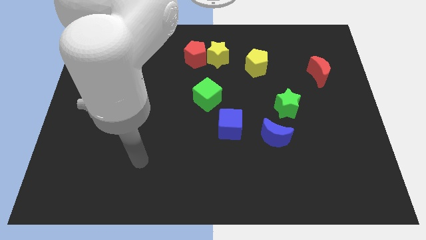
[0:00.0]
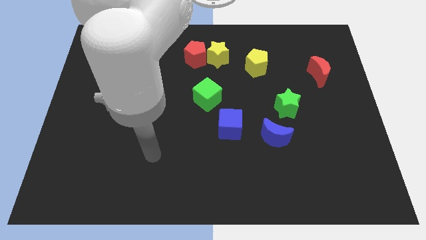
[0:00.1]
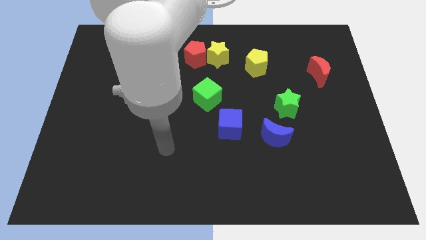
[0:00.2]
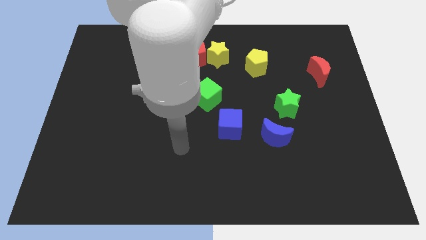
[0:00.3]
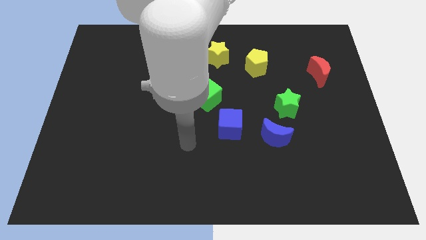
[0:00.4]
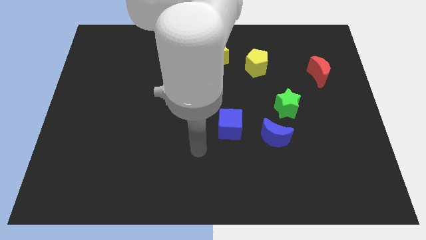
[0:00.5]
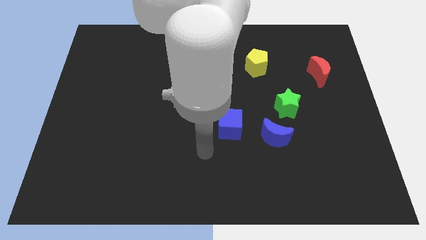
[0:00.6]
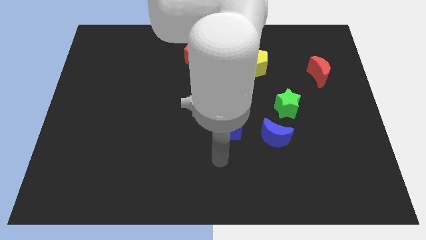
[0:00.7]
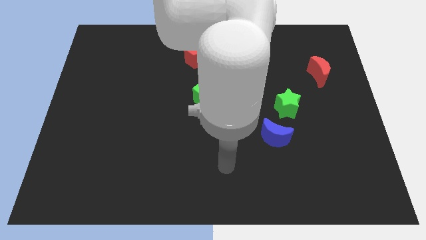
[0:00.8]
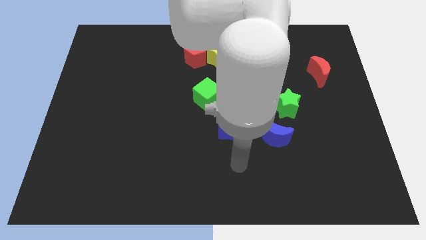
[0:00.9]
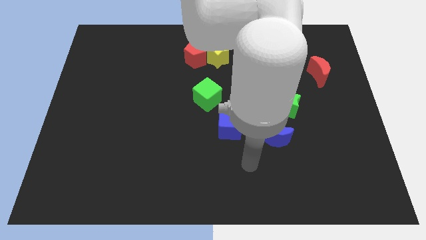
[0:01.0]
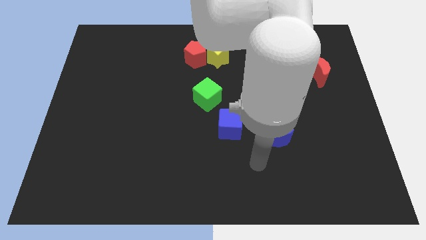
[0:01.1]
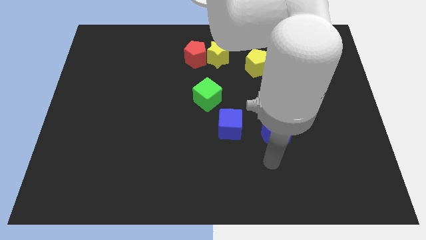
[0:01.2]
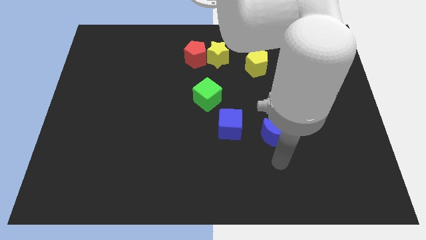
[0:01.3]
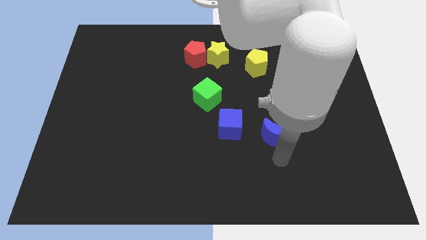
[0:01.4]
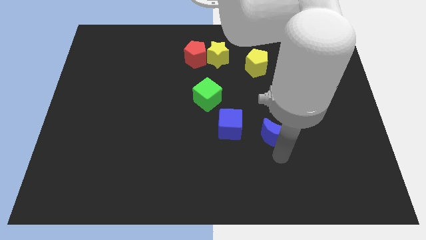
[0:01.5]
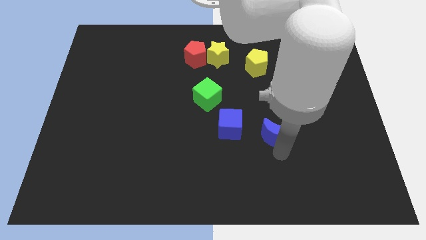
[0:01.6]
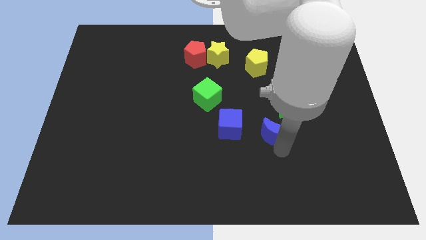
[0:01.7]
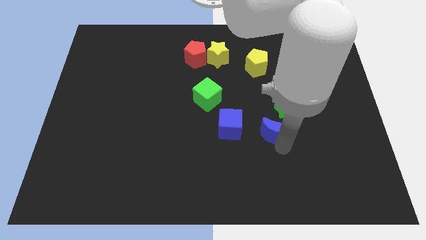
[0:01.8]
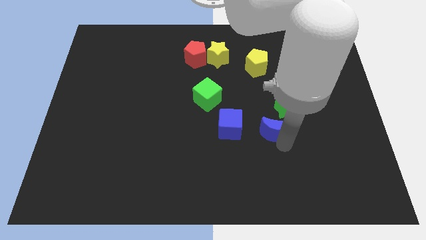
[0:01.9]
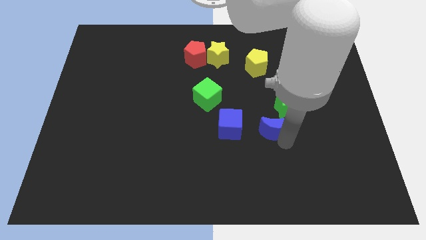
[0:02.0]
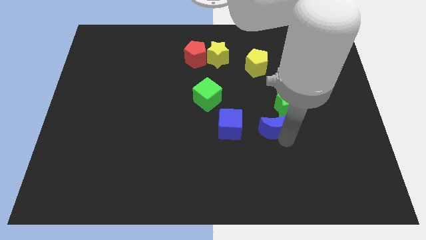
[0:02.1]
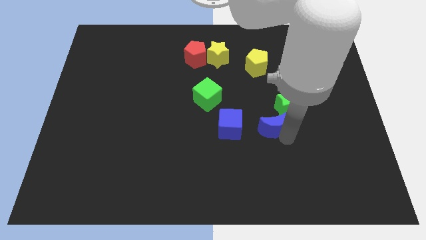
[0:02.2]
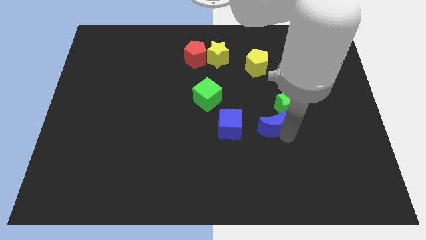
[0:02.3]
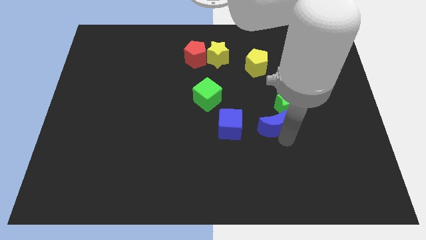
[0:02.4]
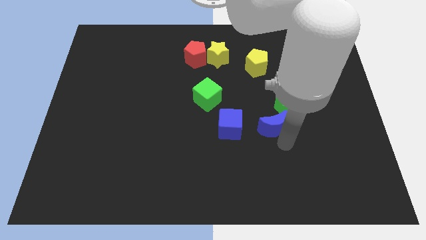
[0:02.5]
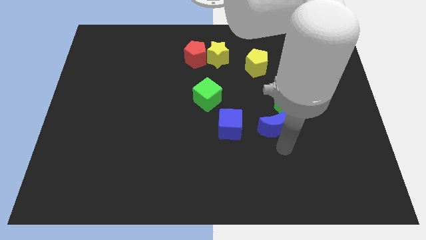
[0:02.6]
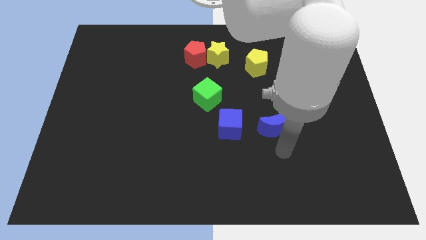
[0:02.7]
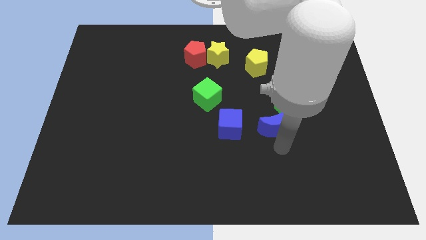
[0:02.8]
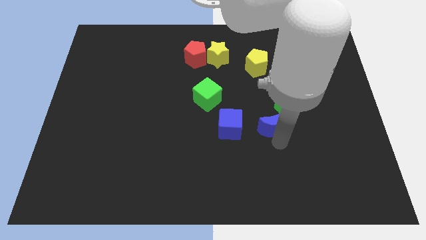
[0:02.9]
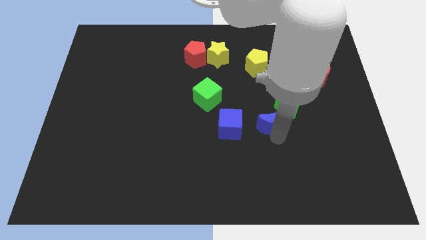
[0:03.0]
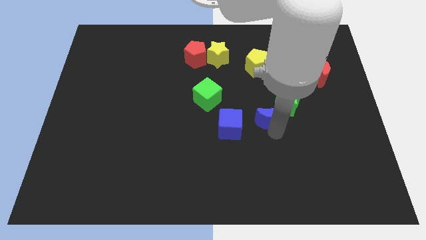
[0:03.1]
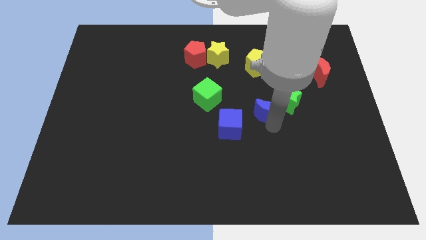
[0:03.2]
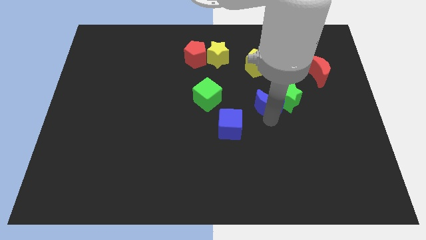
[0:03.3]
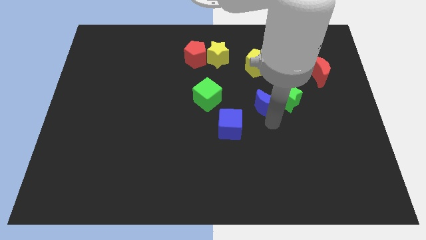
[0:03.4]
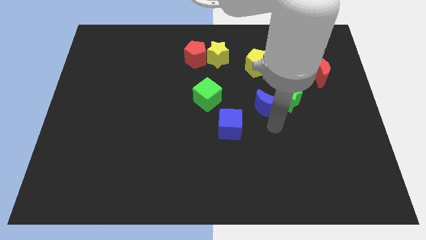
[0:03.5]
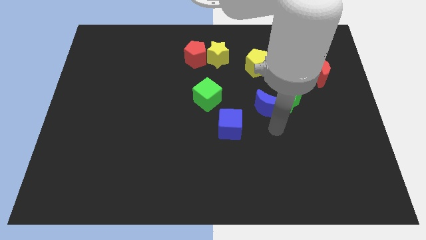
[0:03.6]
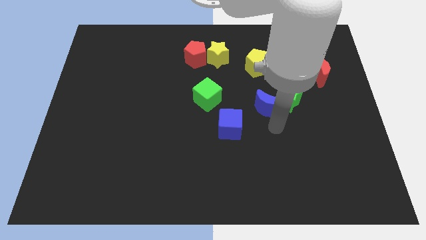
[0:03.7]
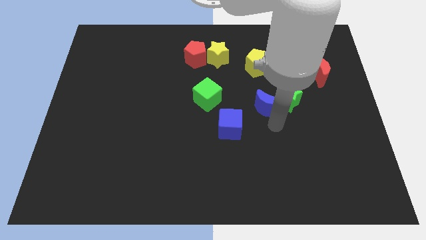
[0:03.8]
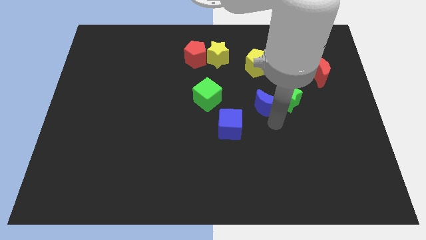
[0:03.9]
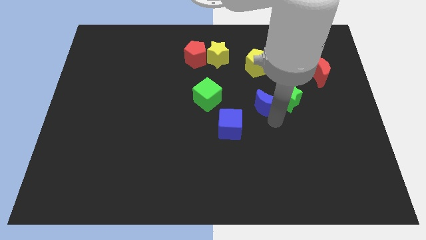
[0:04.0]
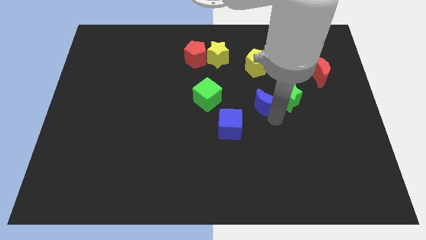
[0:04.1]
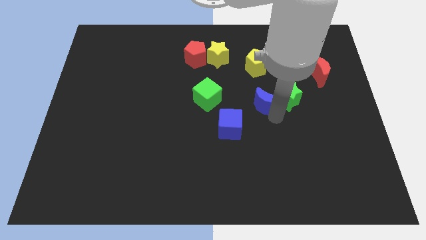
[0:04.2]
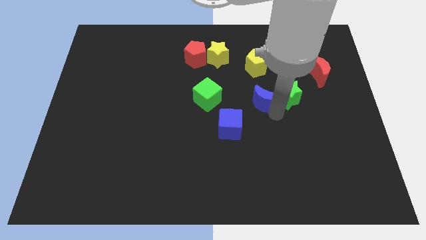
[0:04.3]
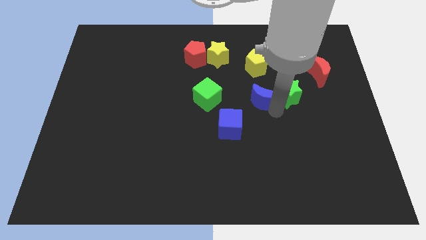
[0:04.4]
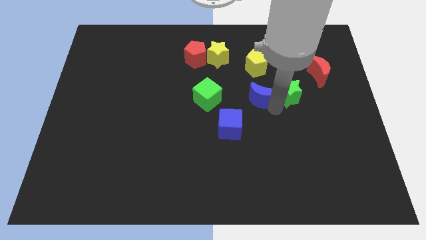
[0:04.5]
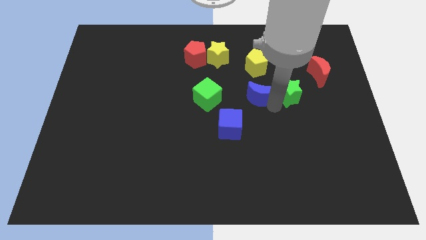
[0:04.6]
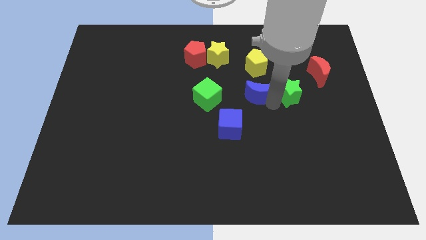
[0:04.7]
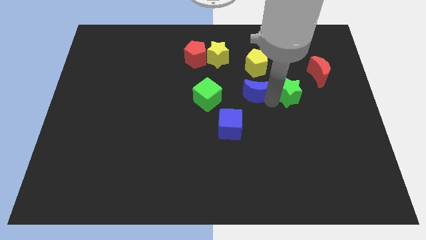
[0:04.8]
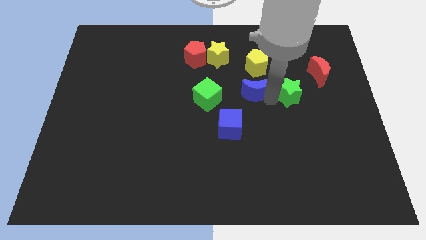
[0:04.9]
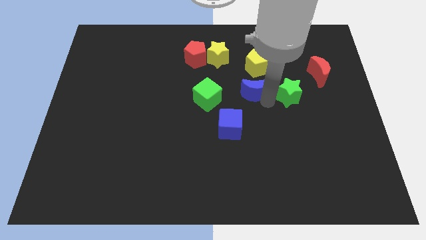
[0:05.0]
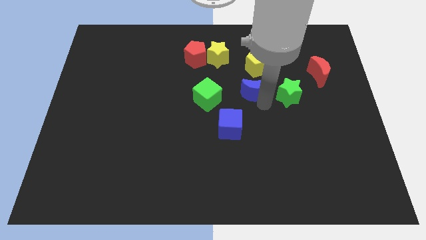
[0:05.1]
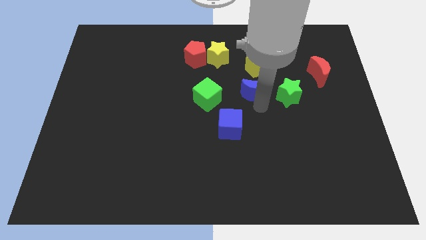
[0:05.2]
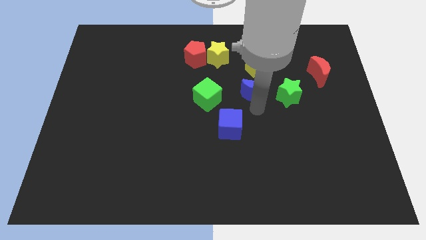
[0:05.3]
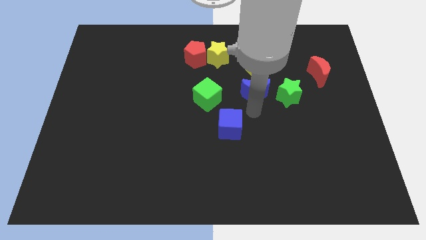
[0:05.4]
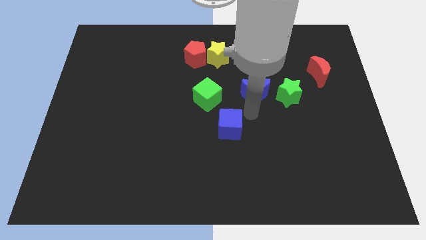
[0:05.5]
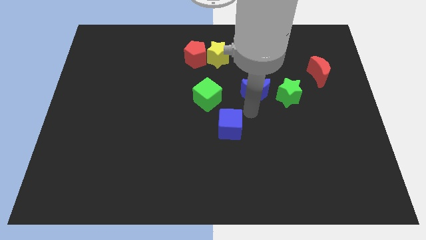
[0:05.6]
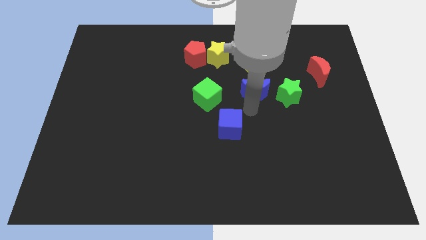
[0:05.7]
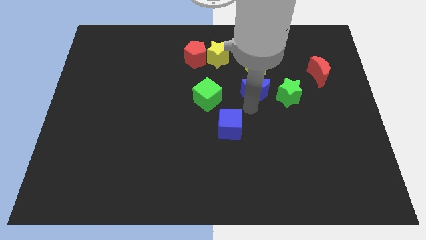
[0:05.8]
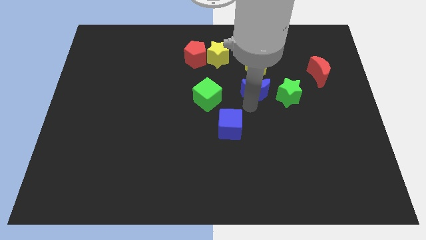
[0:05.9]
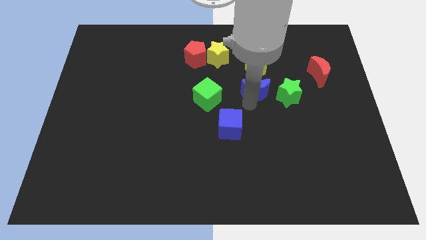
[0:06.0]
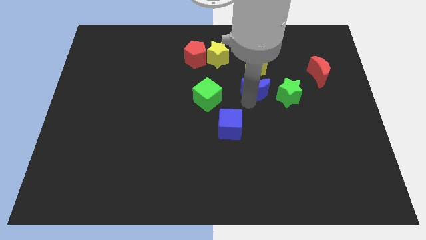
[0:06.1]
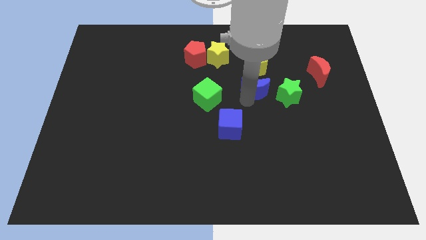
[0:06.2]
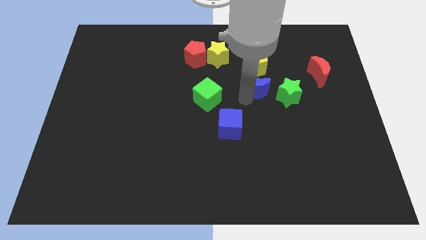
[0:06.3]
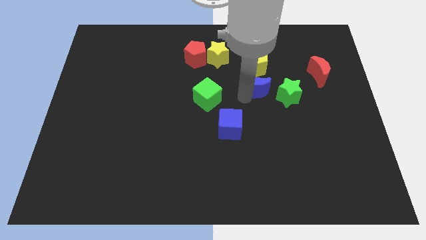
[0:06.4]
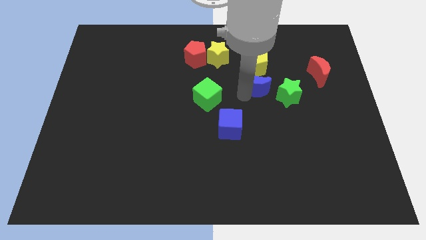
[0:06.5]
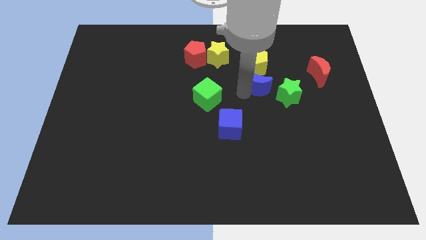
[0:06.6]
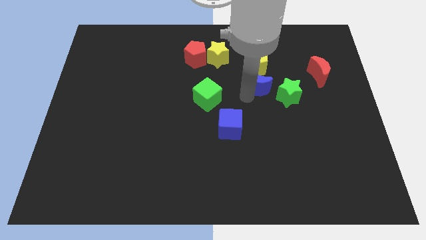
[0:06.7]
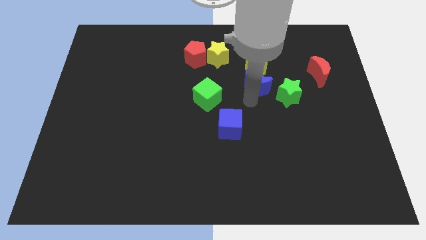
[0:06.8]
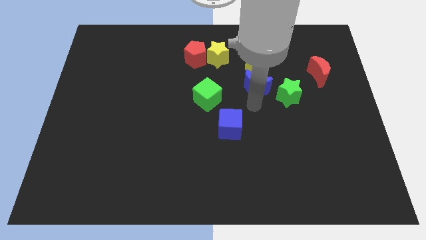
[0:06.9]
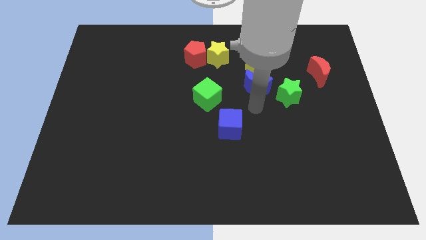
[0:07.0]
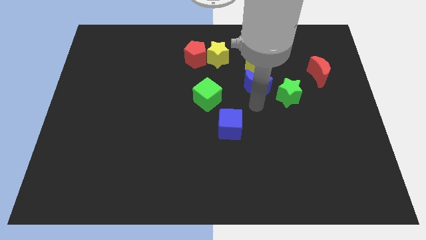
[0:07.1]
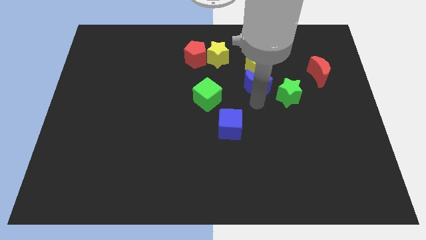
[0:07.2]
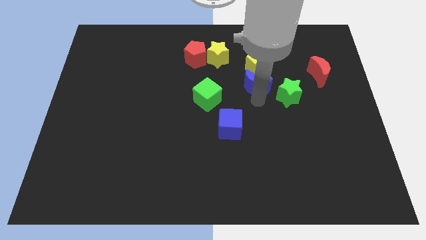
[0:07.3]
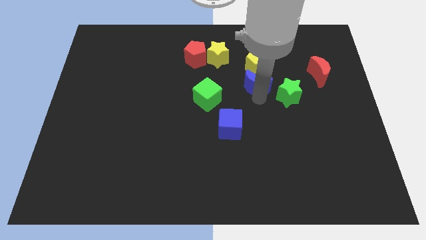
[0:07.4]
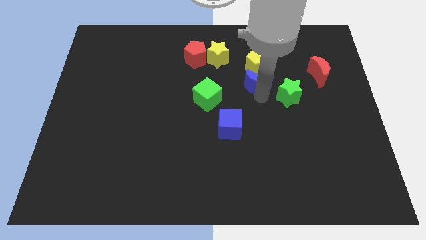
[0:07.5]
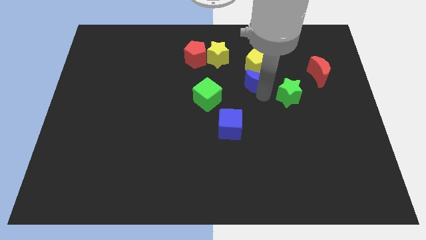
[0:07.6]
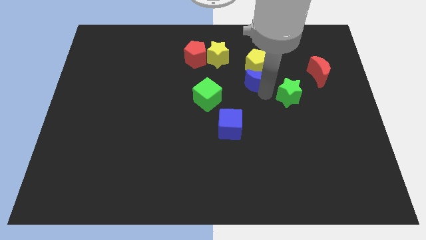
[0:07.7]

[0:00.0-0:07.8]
move the blue moon to the yellow pentagon
